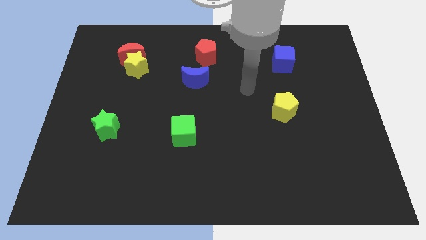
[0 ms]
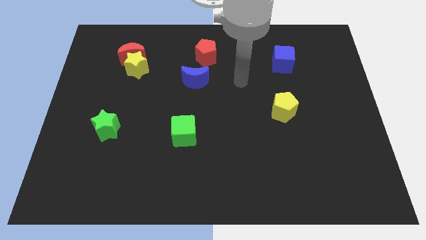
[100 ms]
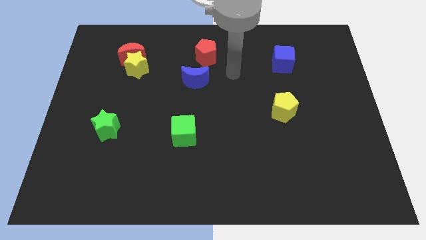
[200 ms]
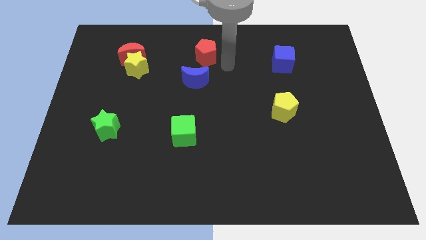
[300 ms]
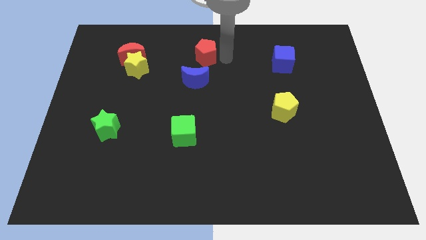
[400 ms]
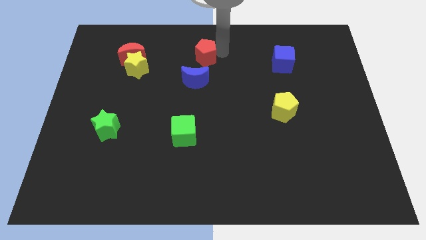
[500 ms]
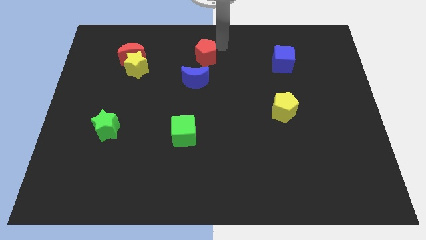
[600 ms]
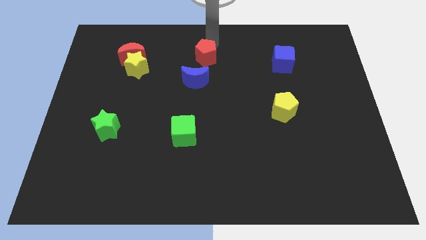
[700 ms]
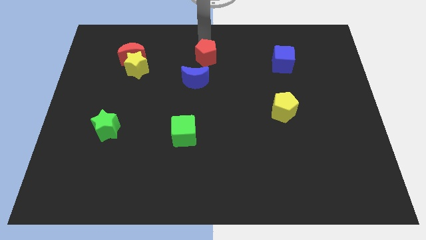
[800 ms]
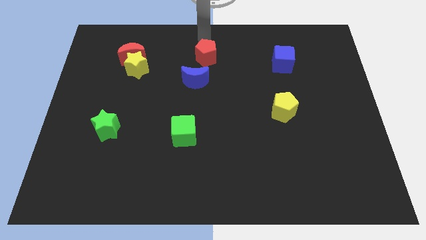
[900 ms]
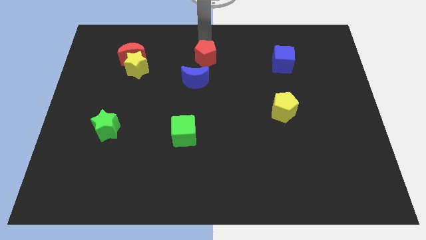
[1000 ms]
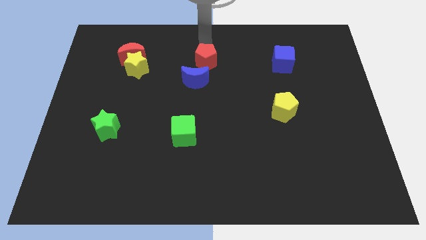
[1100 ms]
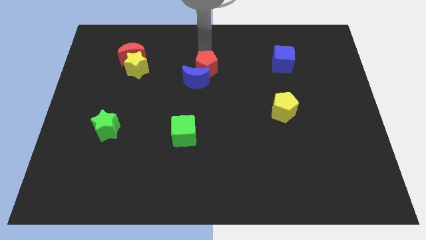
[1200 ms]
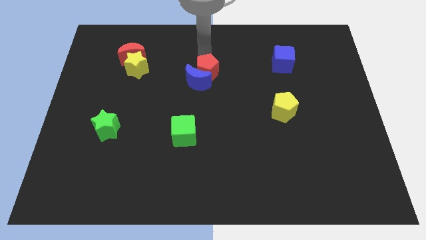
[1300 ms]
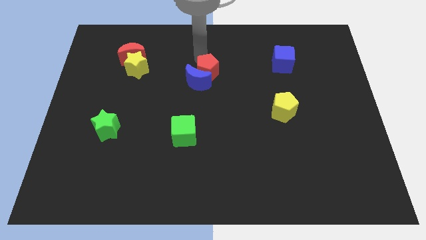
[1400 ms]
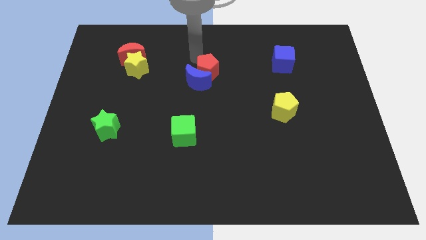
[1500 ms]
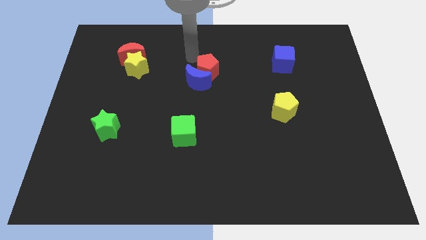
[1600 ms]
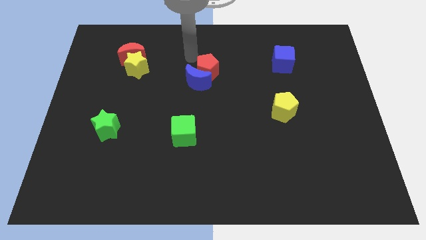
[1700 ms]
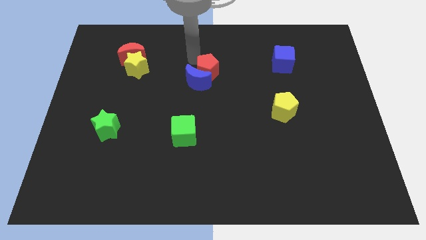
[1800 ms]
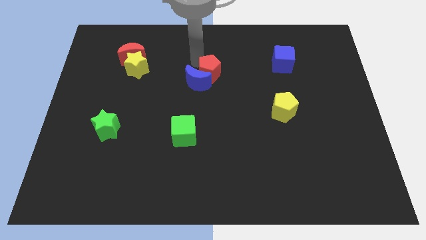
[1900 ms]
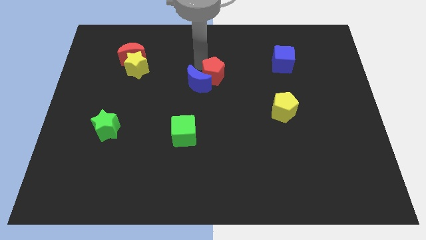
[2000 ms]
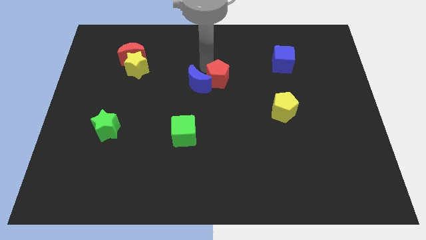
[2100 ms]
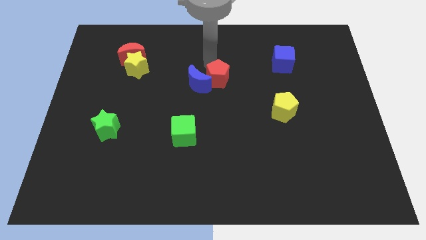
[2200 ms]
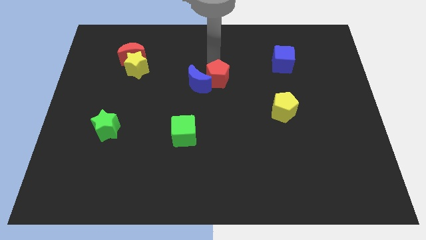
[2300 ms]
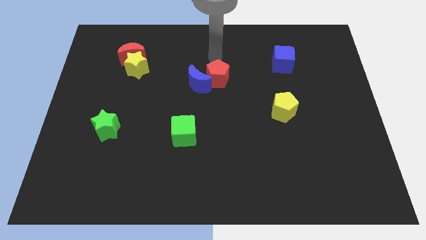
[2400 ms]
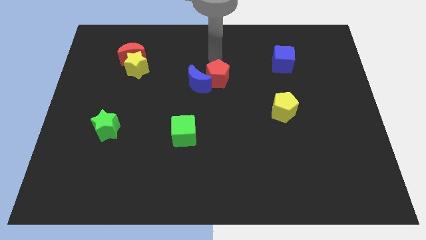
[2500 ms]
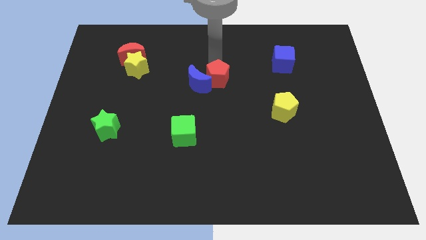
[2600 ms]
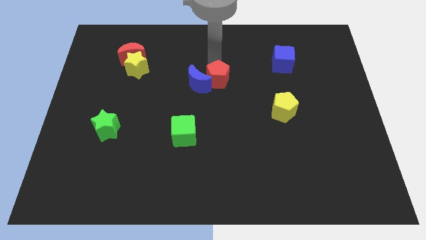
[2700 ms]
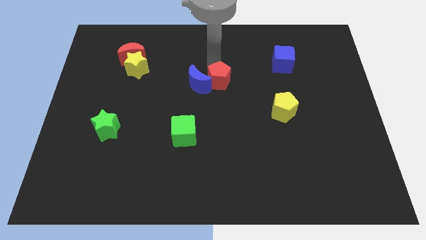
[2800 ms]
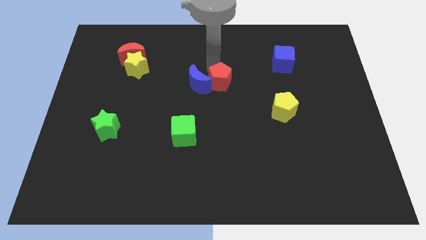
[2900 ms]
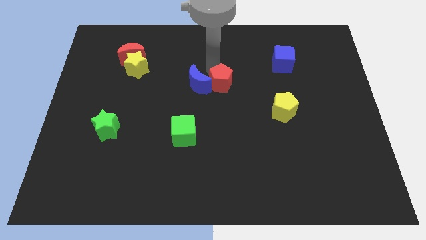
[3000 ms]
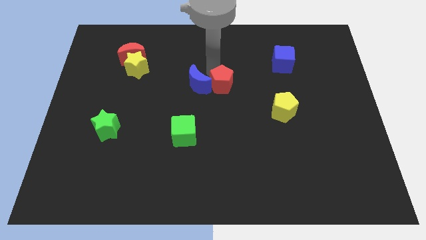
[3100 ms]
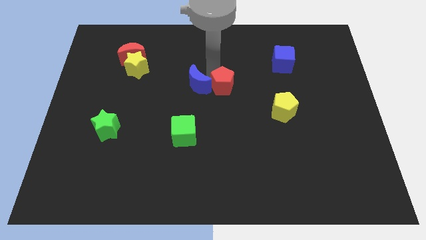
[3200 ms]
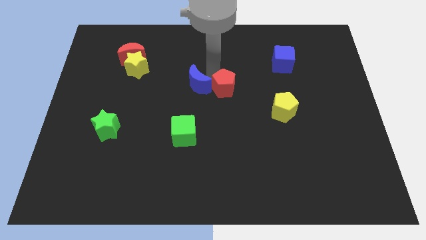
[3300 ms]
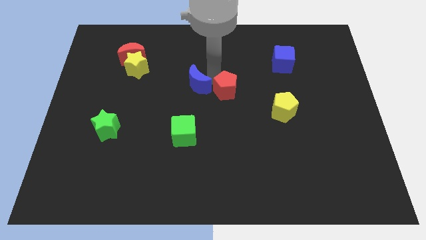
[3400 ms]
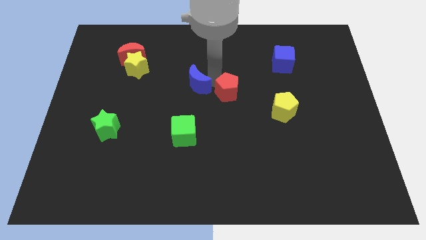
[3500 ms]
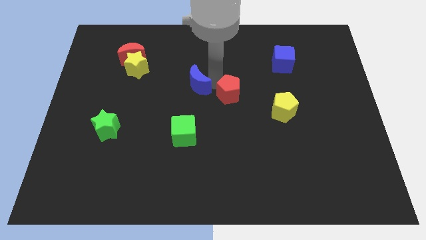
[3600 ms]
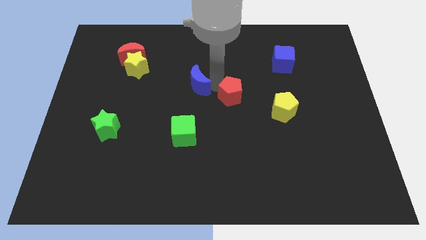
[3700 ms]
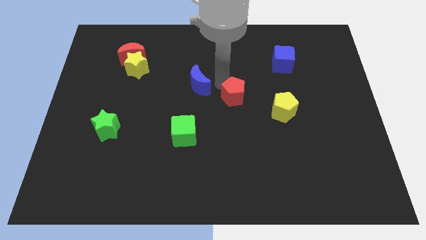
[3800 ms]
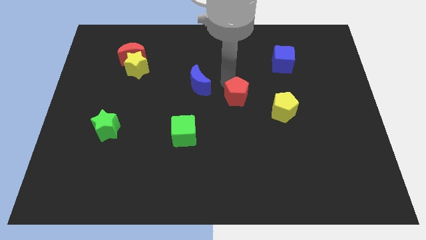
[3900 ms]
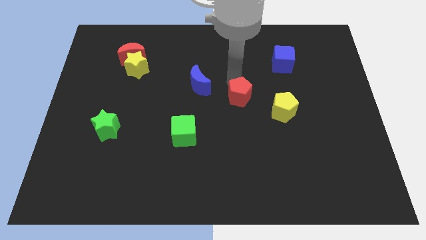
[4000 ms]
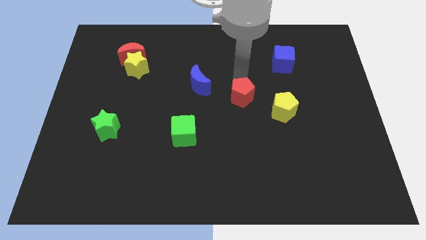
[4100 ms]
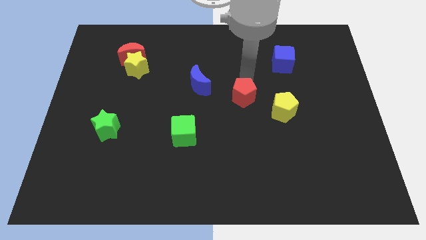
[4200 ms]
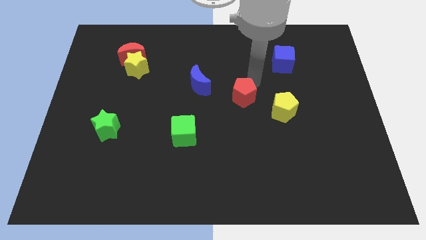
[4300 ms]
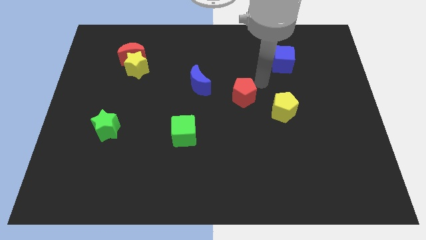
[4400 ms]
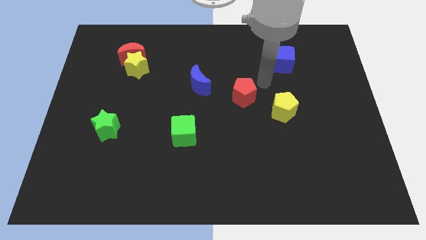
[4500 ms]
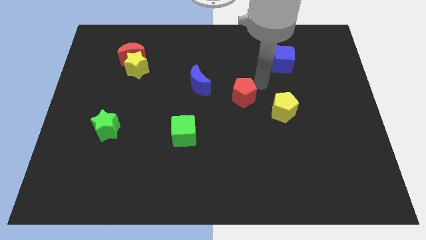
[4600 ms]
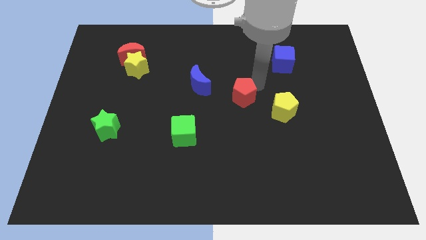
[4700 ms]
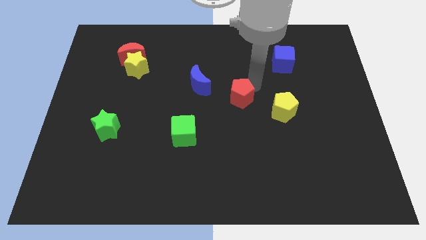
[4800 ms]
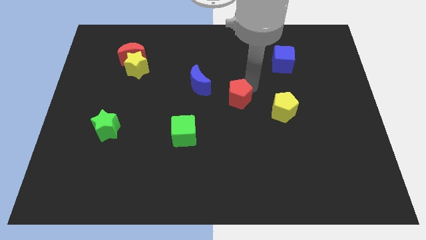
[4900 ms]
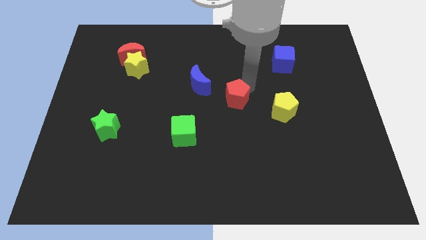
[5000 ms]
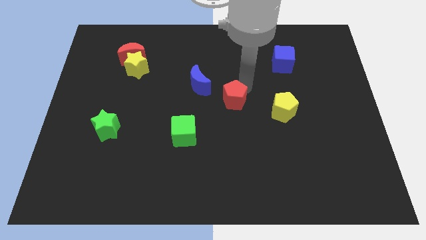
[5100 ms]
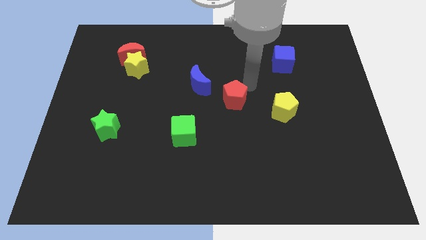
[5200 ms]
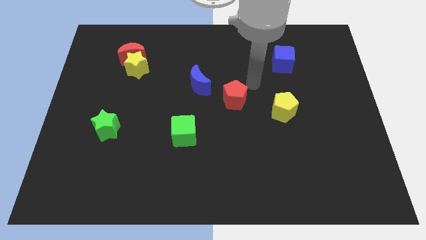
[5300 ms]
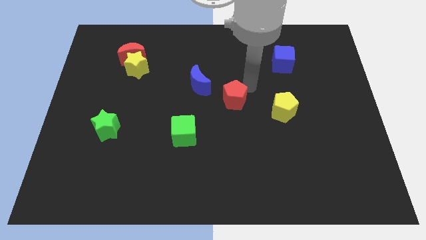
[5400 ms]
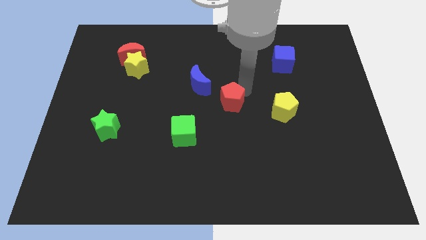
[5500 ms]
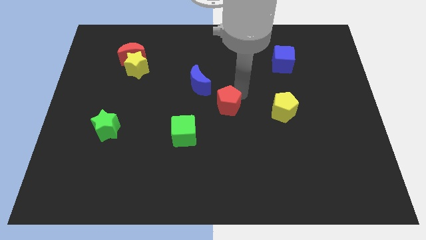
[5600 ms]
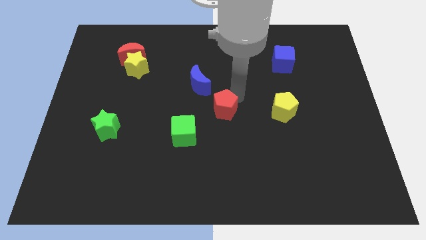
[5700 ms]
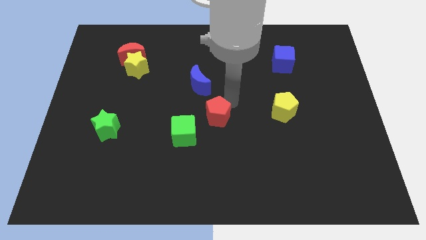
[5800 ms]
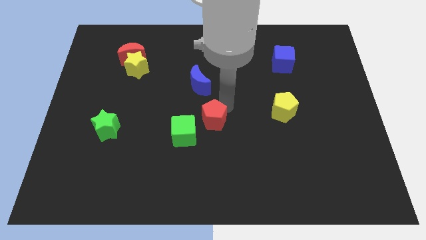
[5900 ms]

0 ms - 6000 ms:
move the red pentagon downwards

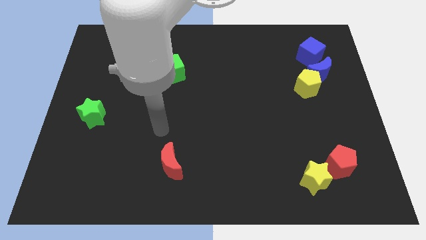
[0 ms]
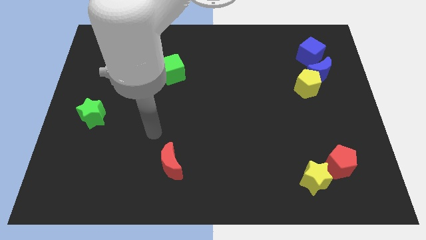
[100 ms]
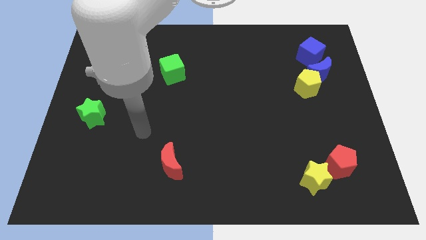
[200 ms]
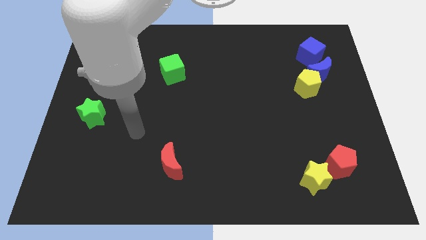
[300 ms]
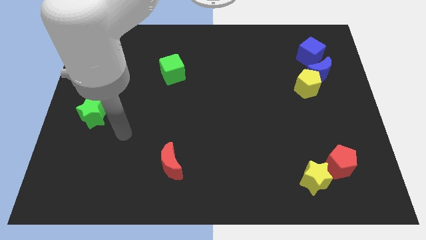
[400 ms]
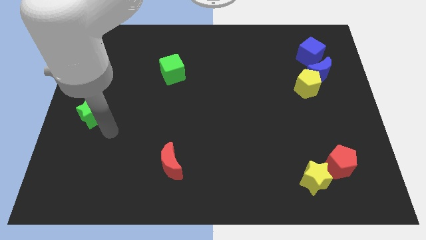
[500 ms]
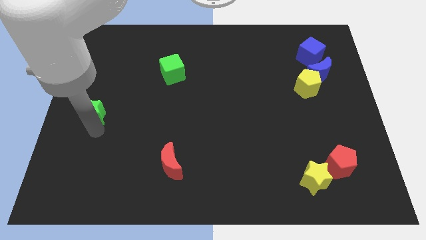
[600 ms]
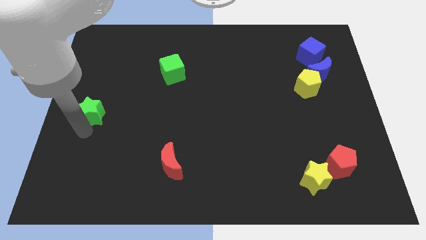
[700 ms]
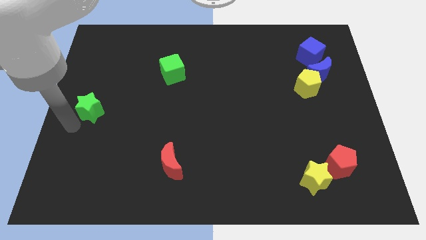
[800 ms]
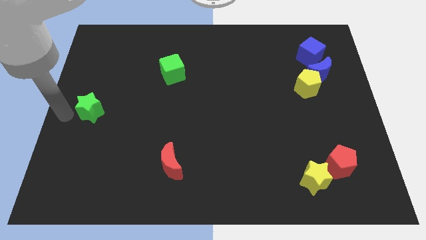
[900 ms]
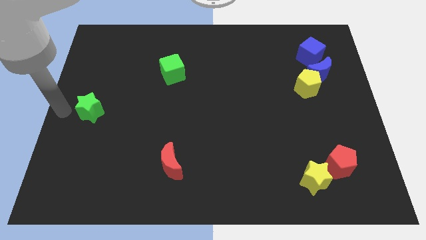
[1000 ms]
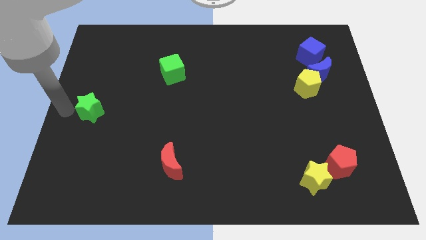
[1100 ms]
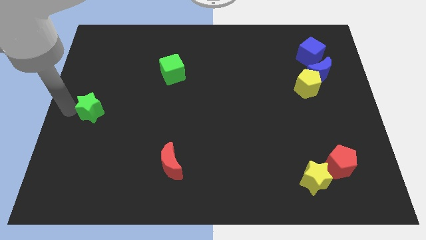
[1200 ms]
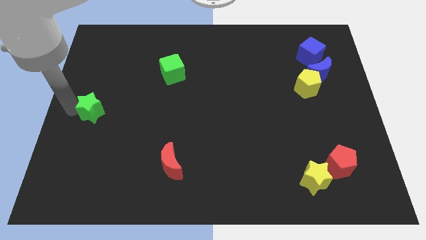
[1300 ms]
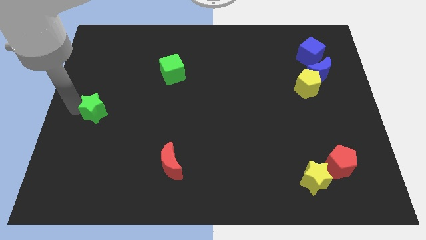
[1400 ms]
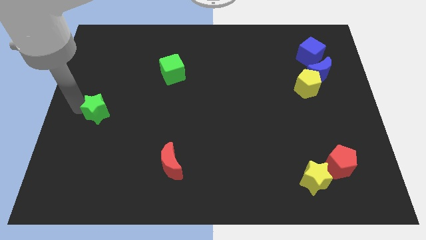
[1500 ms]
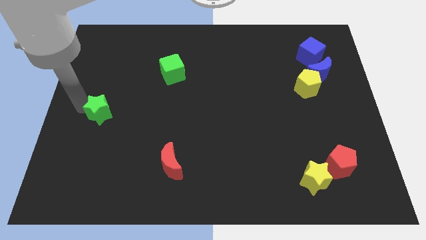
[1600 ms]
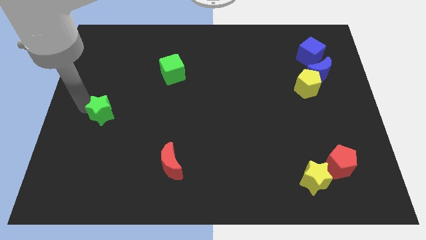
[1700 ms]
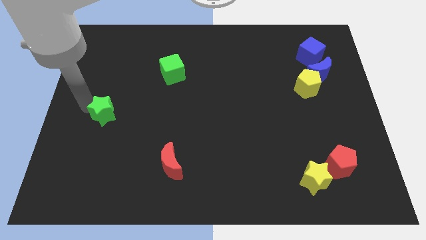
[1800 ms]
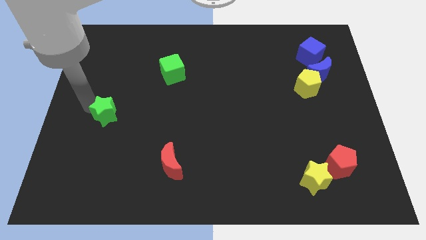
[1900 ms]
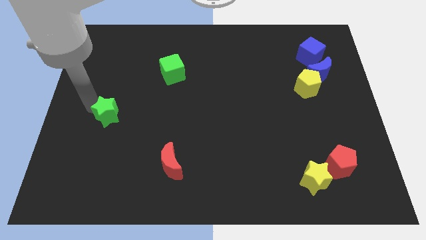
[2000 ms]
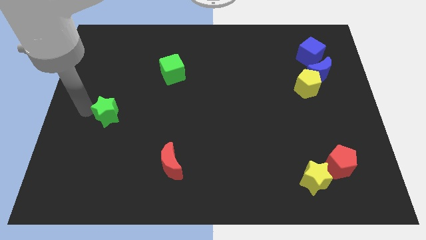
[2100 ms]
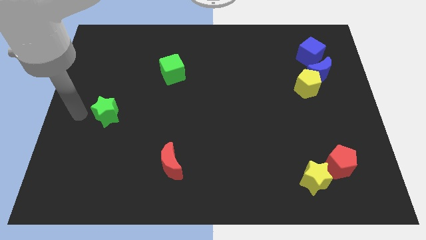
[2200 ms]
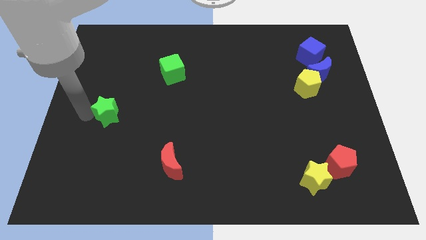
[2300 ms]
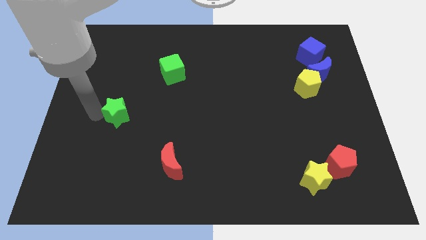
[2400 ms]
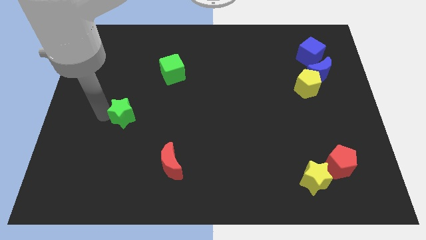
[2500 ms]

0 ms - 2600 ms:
slightly move the green star to the right
